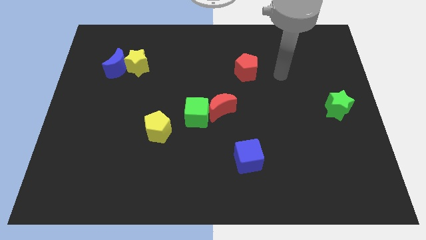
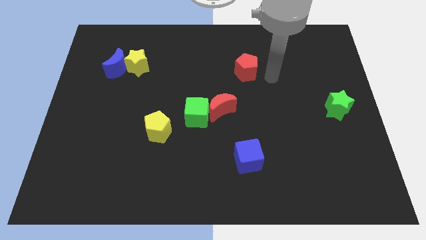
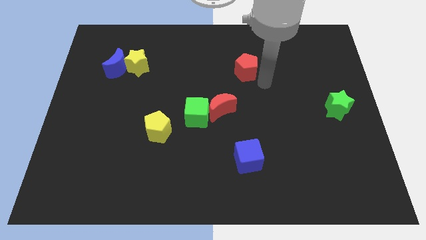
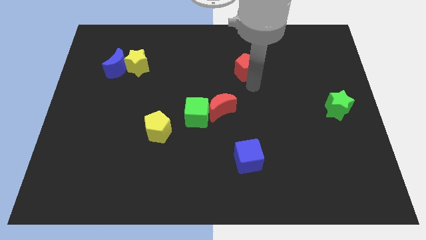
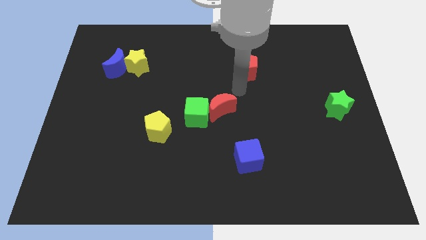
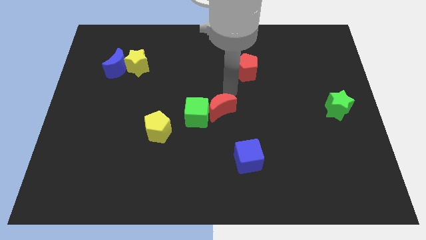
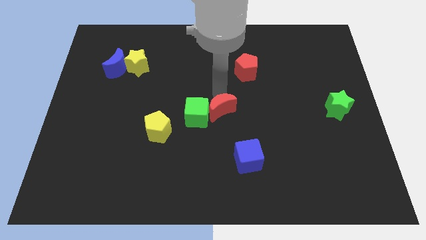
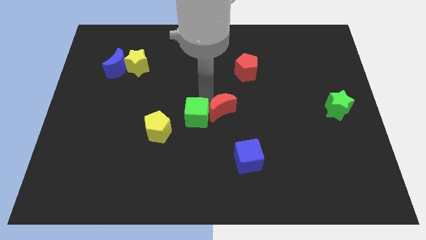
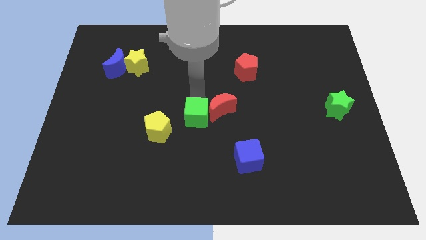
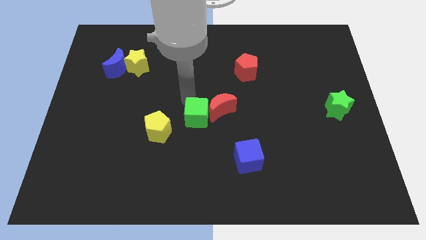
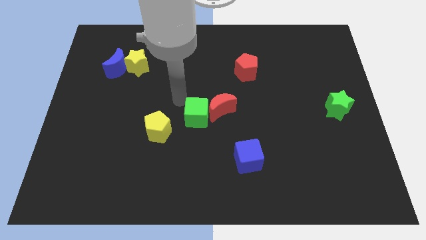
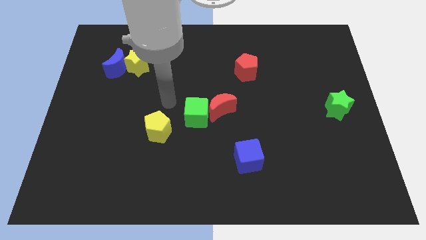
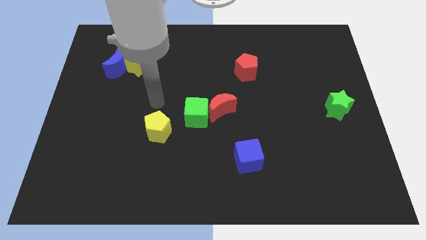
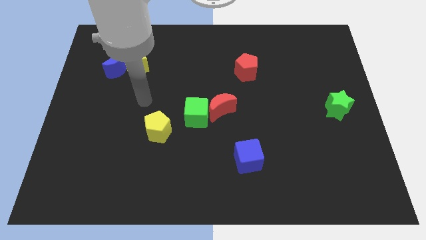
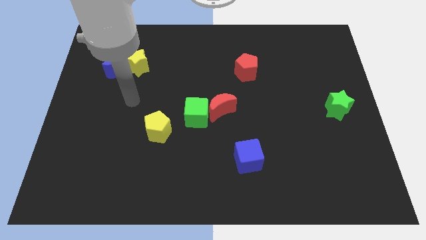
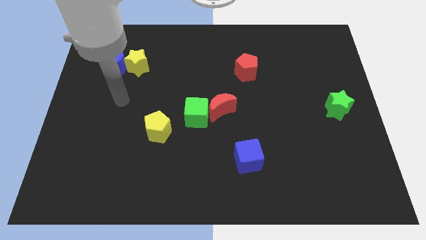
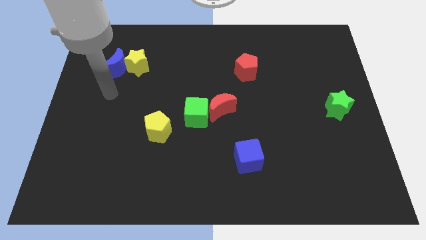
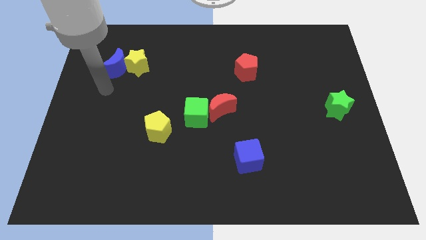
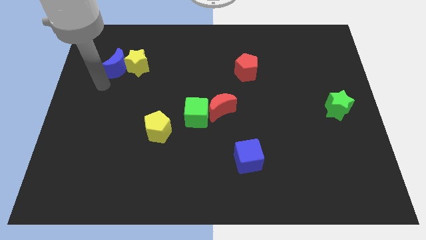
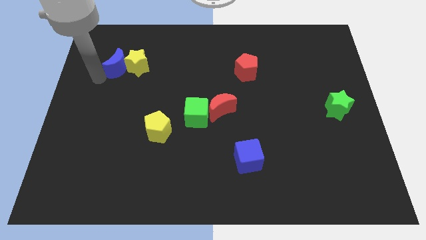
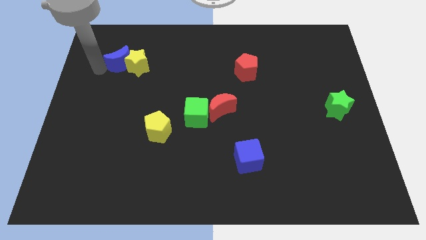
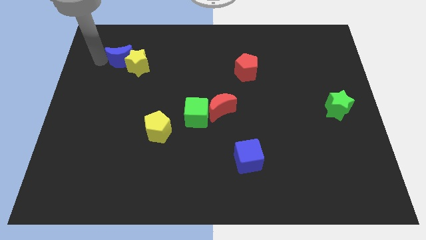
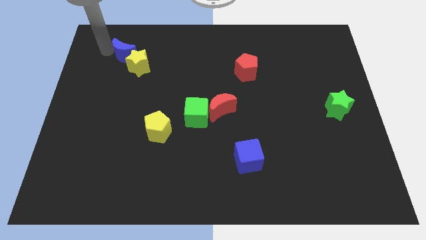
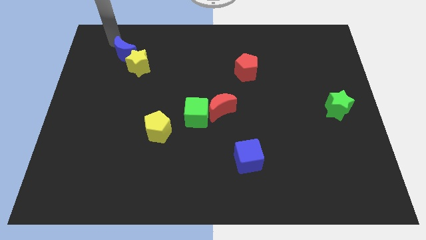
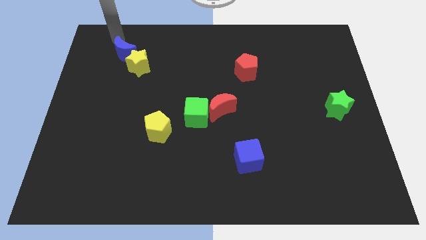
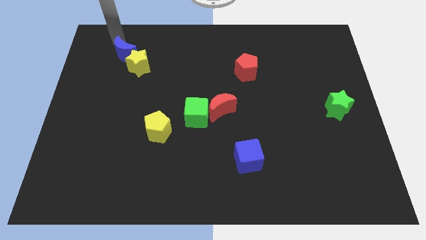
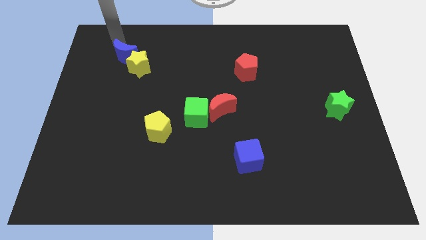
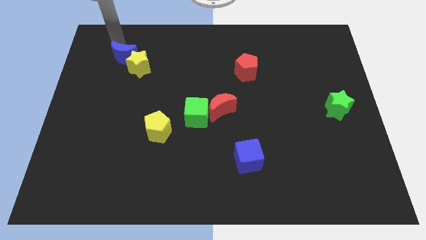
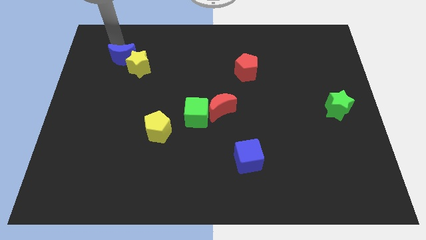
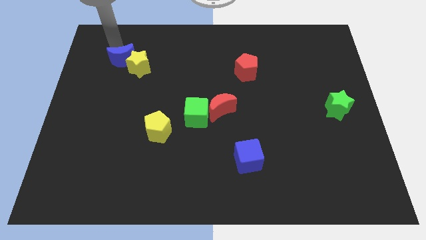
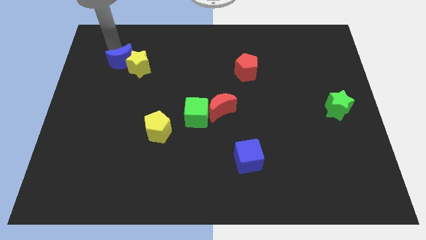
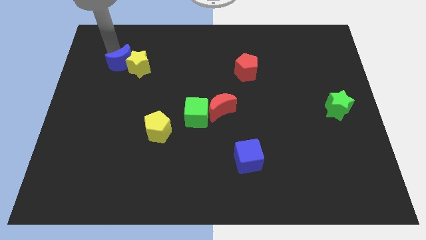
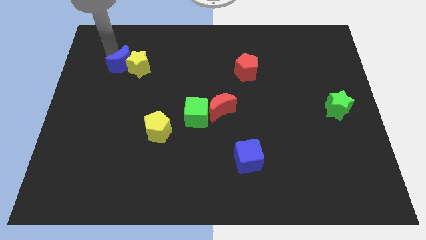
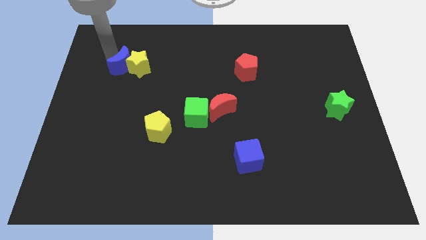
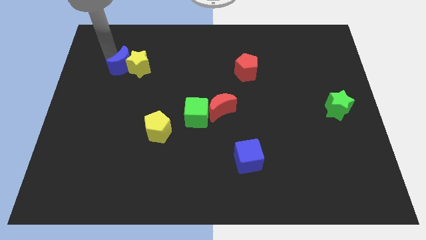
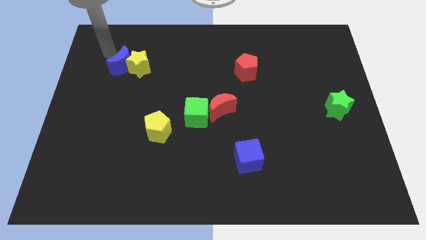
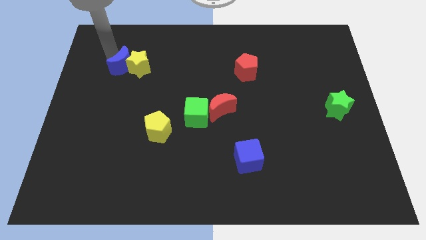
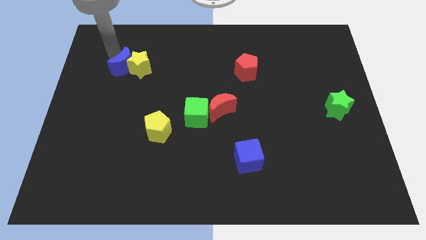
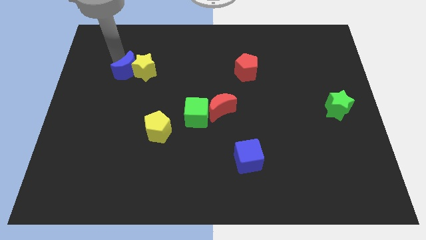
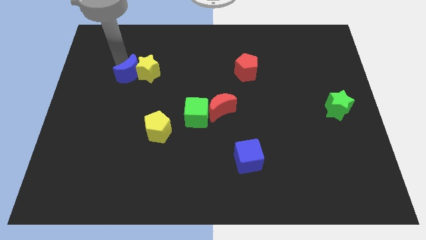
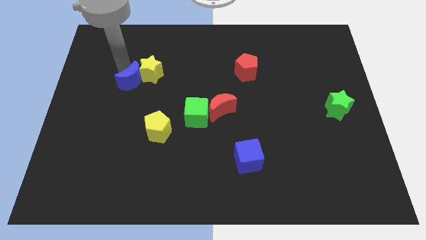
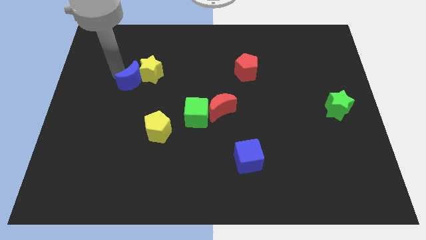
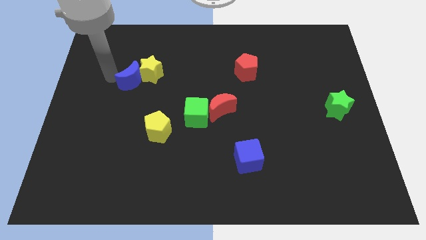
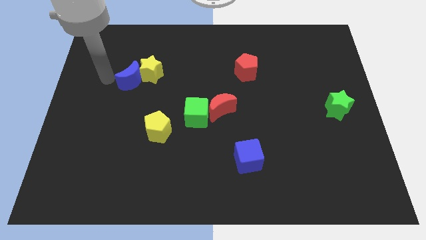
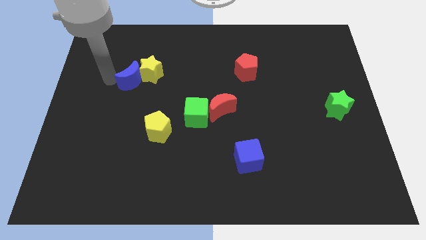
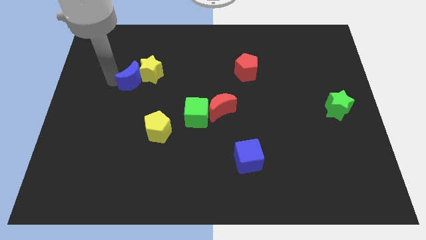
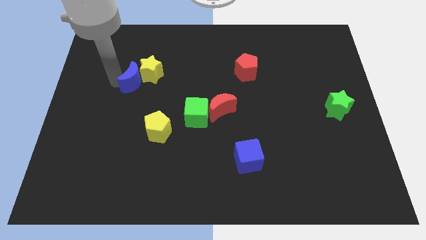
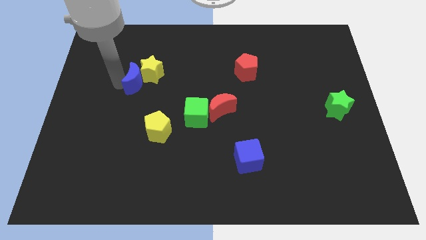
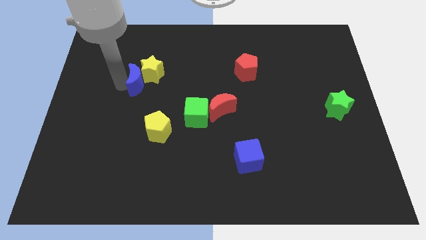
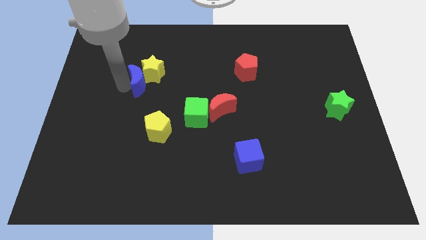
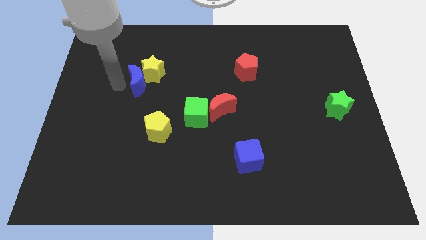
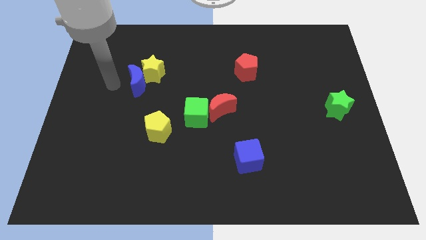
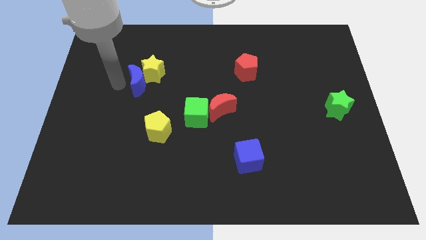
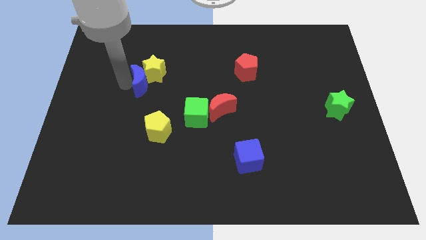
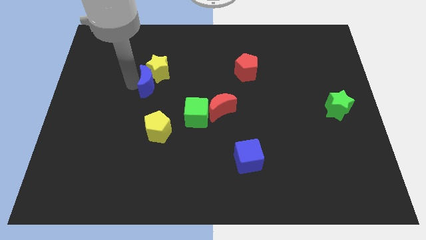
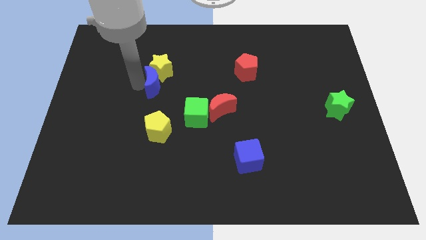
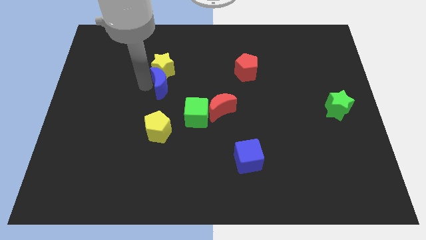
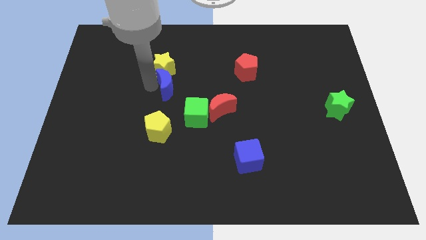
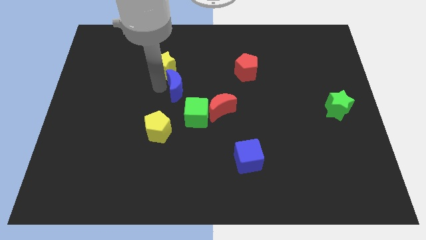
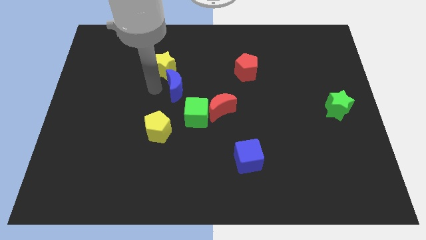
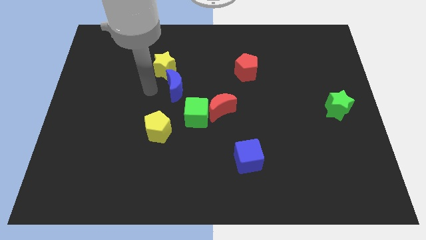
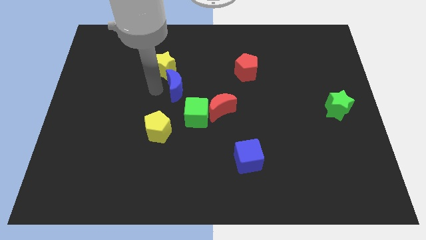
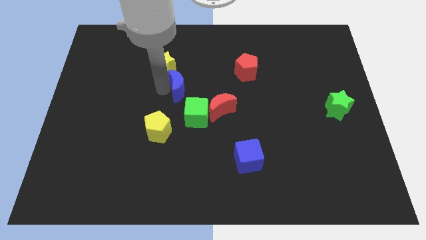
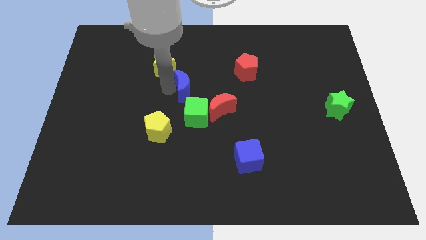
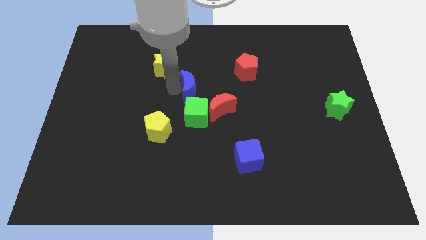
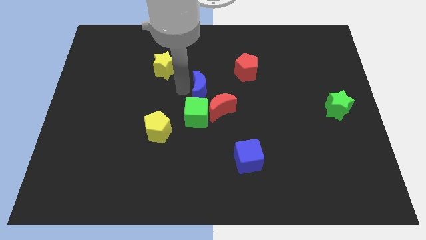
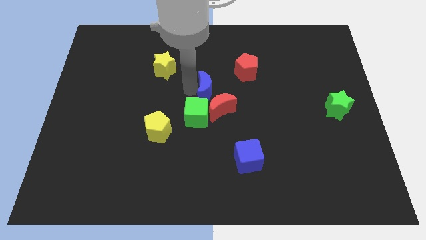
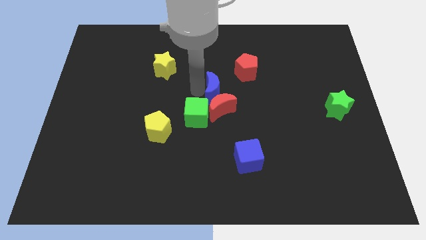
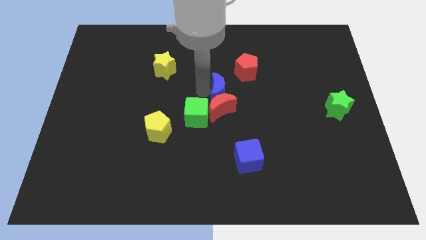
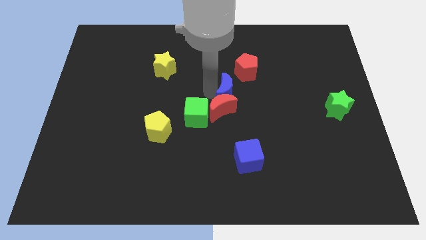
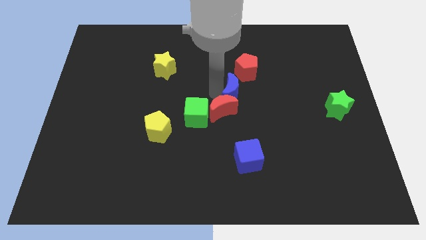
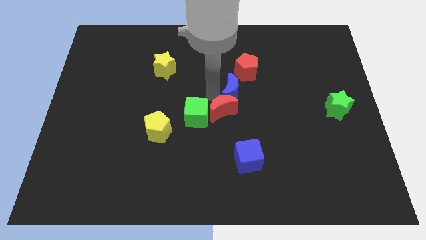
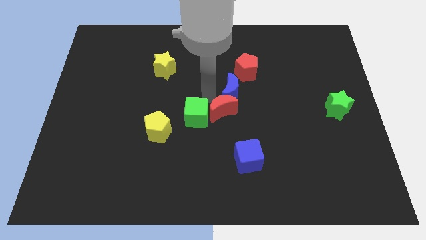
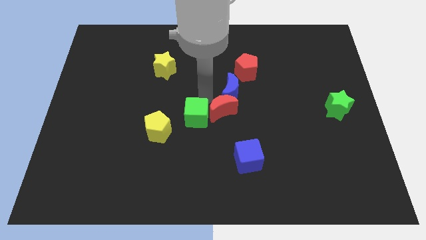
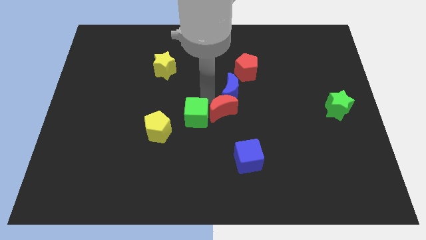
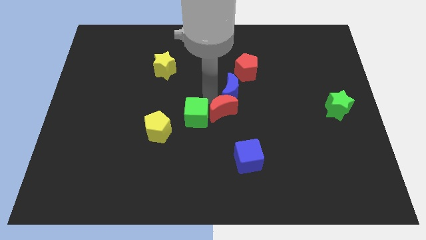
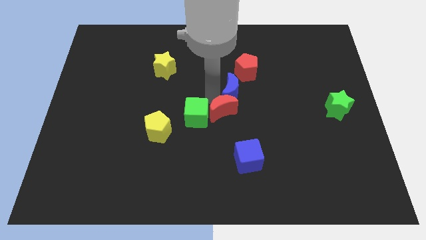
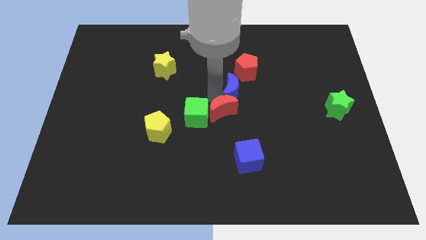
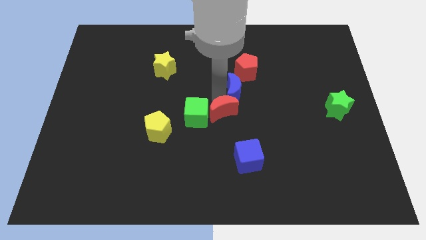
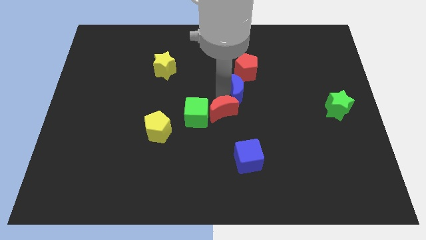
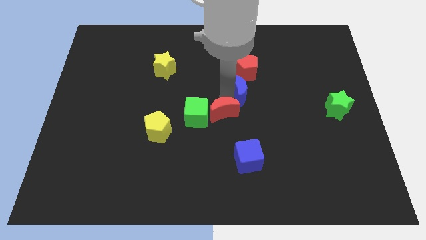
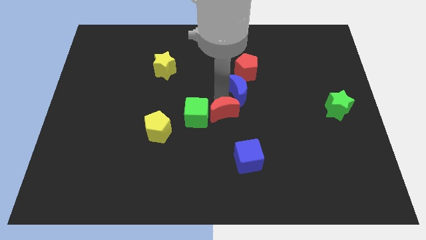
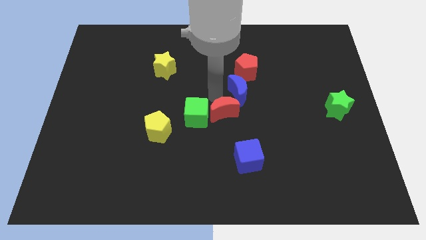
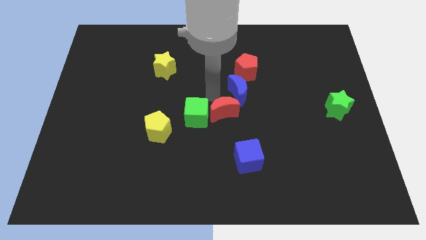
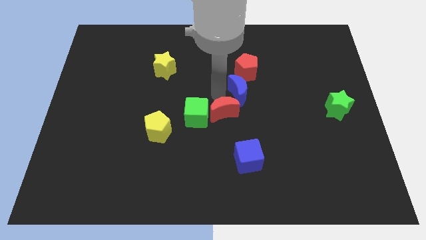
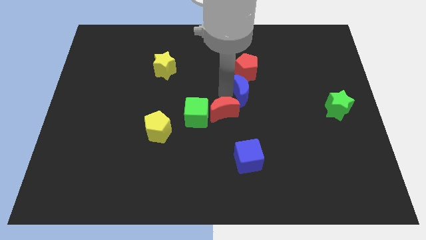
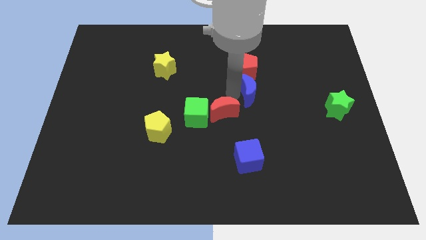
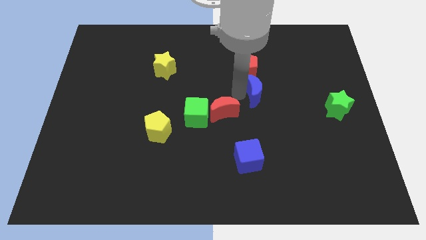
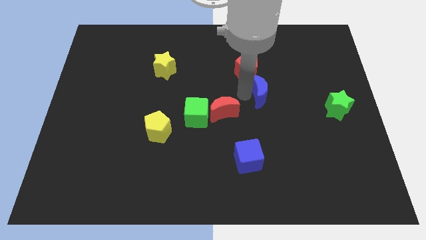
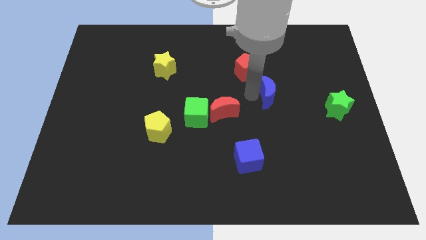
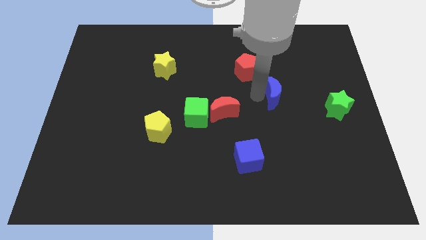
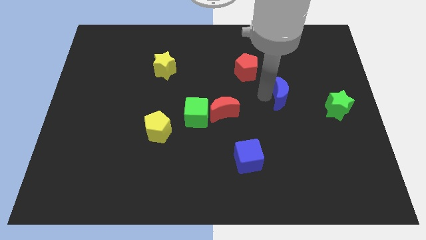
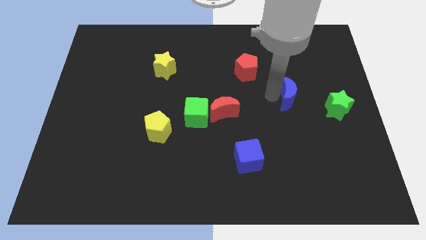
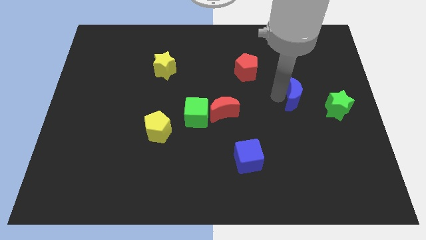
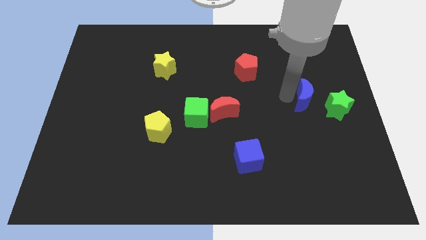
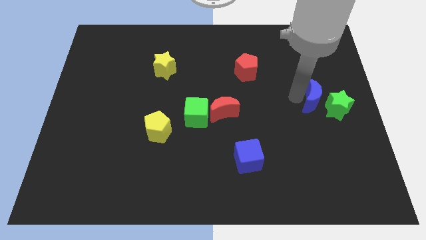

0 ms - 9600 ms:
move the blue moon to the green star
